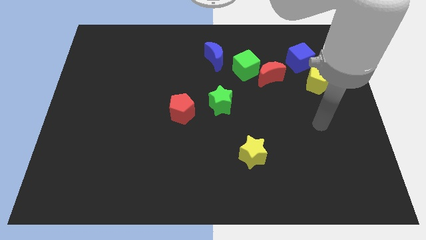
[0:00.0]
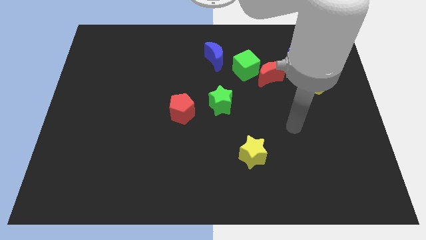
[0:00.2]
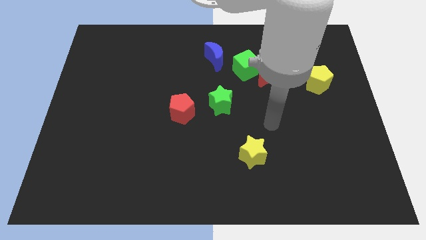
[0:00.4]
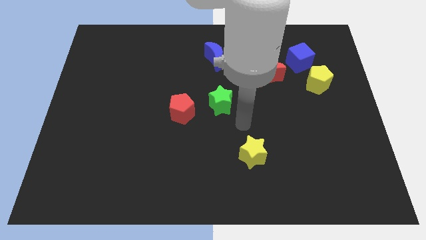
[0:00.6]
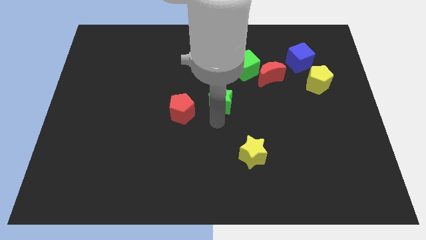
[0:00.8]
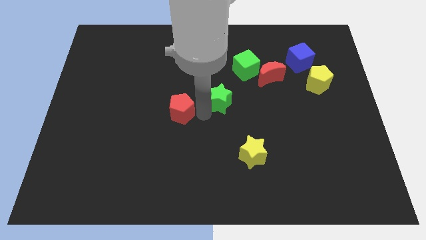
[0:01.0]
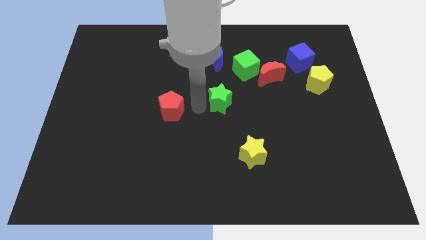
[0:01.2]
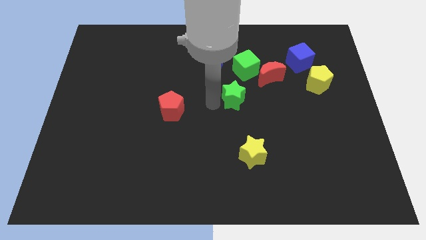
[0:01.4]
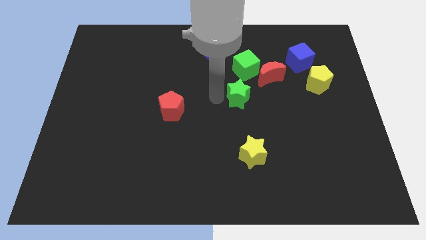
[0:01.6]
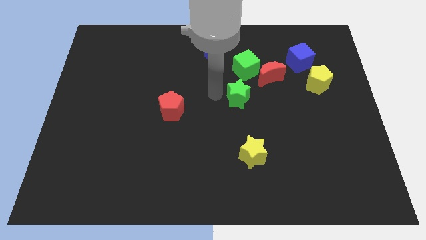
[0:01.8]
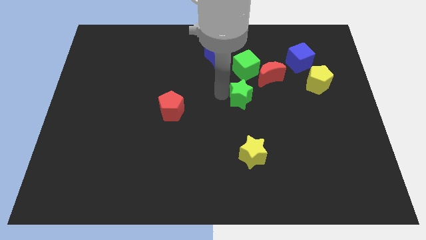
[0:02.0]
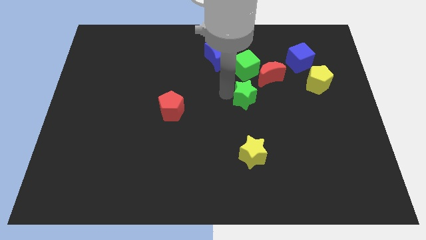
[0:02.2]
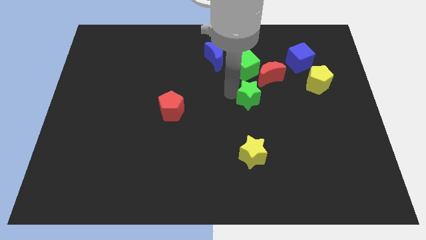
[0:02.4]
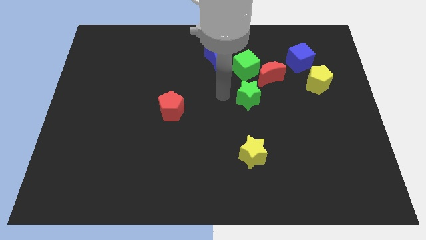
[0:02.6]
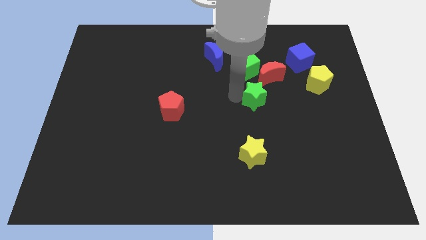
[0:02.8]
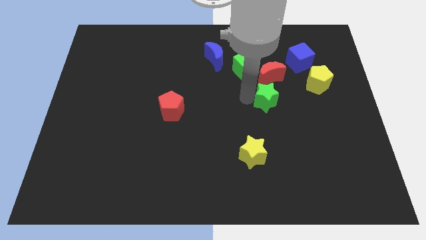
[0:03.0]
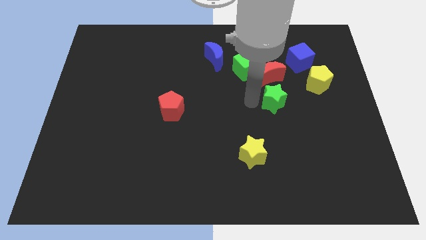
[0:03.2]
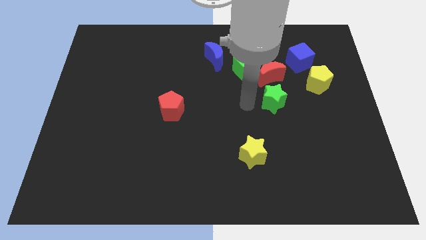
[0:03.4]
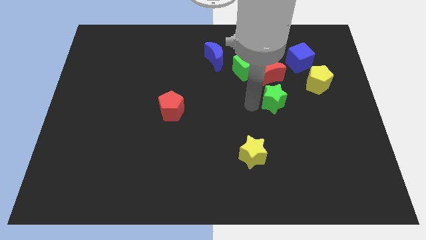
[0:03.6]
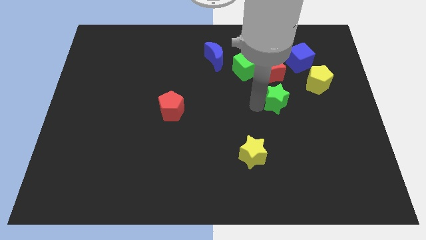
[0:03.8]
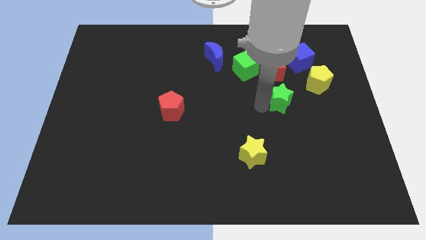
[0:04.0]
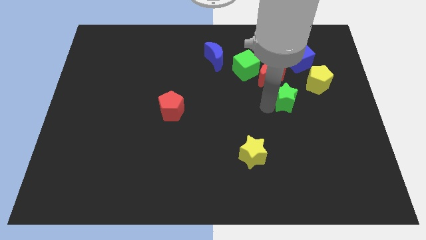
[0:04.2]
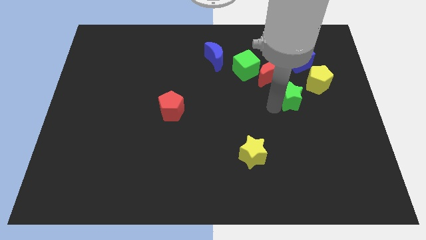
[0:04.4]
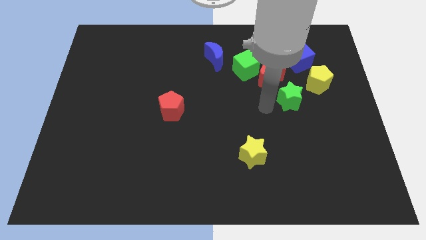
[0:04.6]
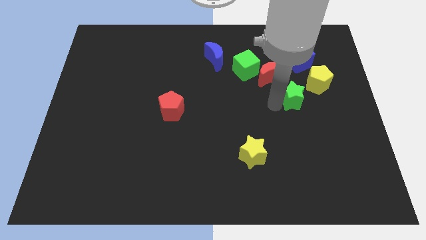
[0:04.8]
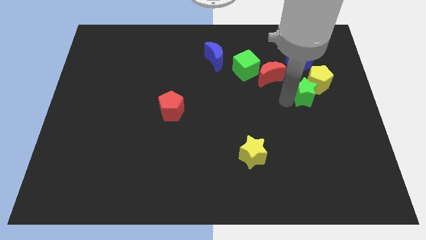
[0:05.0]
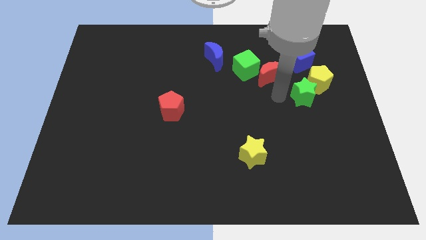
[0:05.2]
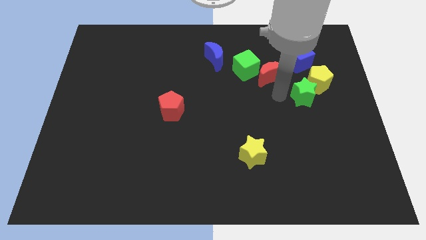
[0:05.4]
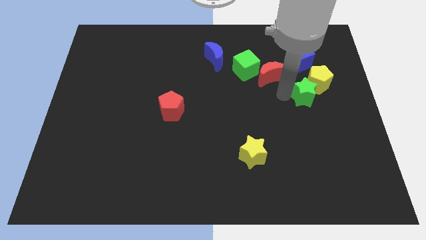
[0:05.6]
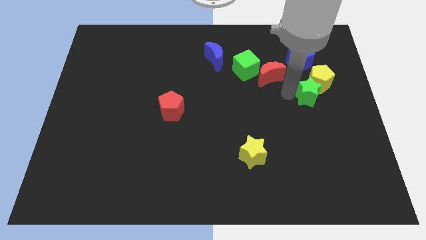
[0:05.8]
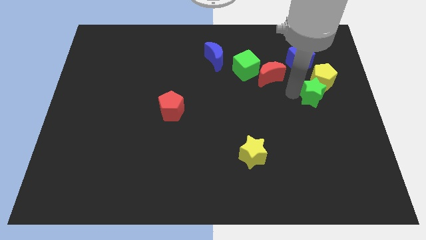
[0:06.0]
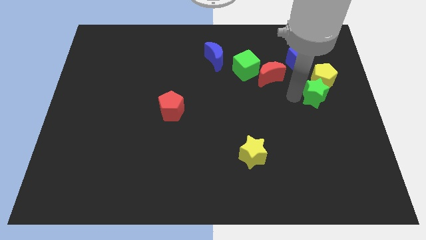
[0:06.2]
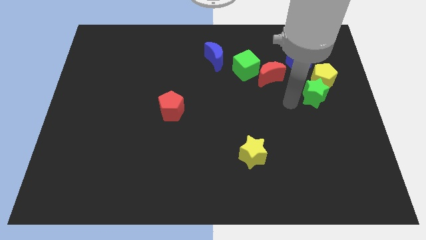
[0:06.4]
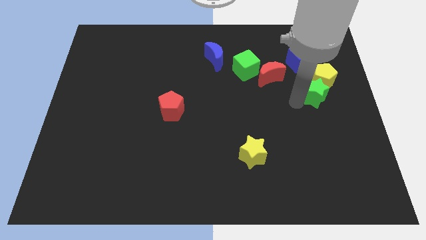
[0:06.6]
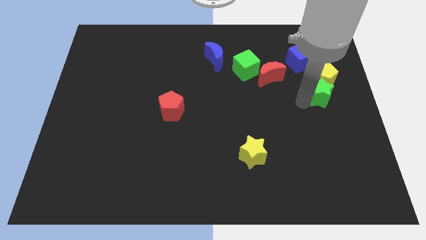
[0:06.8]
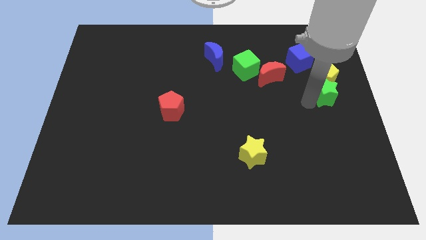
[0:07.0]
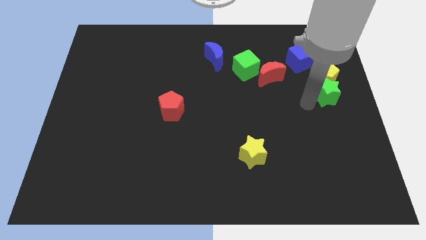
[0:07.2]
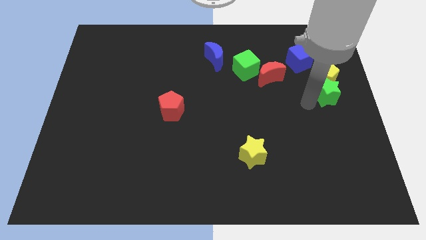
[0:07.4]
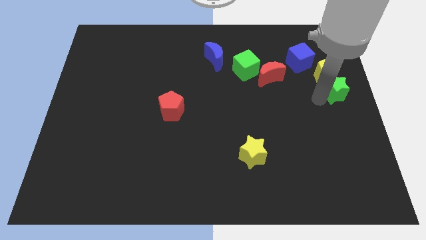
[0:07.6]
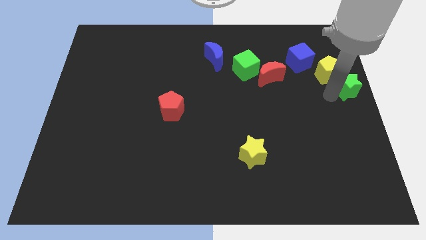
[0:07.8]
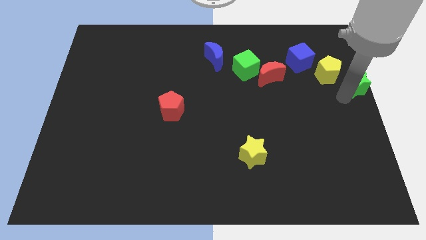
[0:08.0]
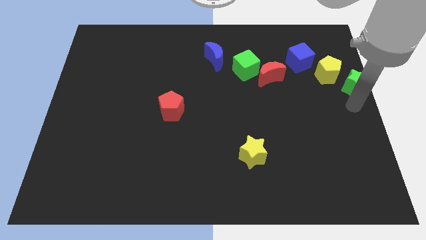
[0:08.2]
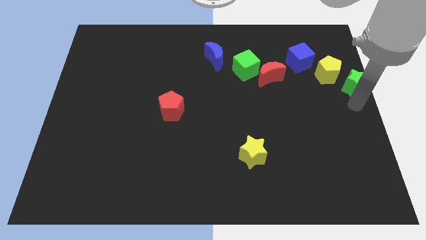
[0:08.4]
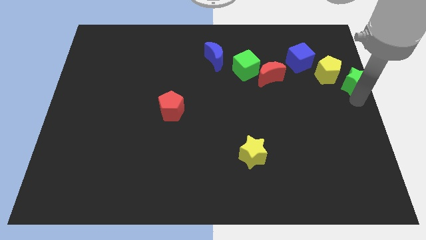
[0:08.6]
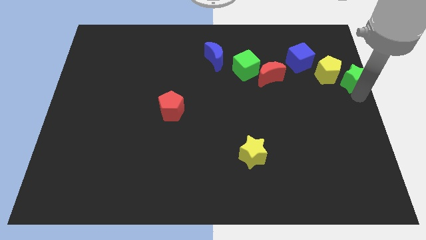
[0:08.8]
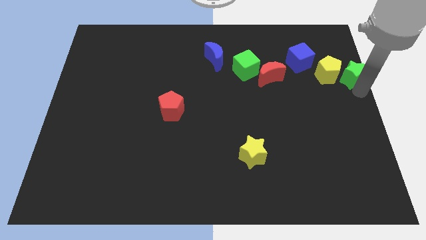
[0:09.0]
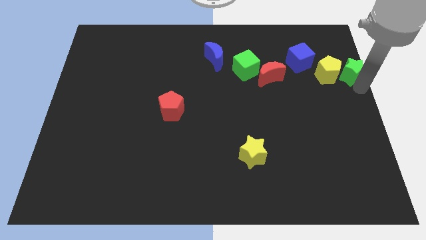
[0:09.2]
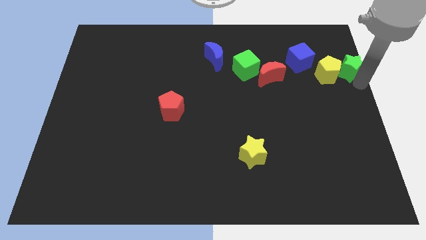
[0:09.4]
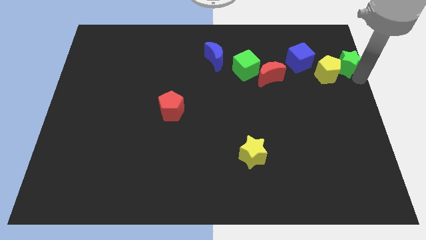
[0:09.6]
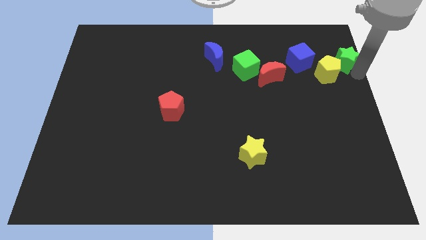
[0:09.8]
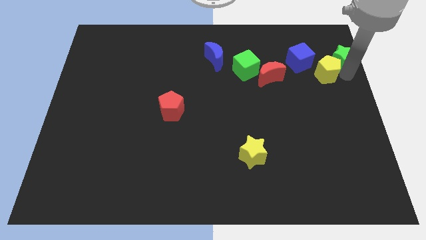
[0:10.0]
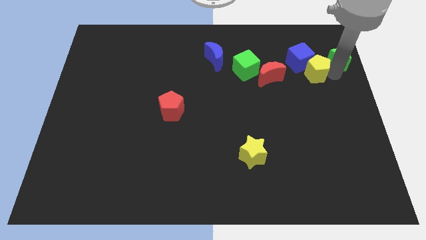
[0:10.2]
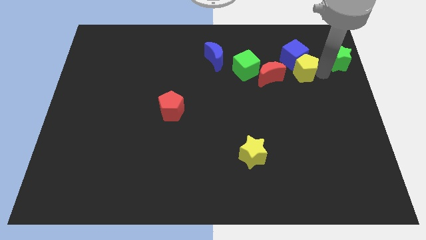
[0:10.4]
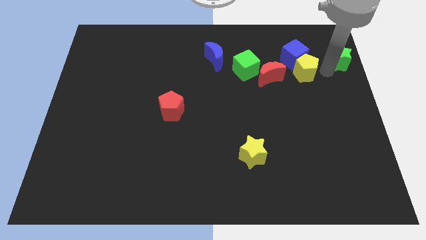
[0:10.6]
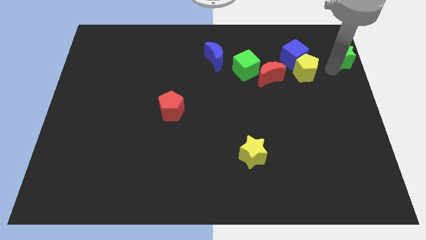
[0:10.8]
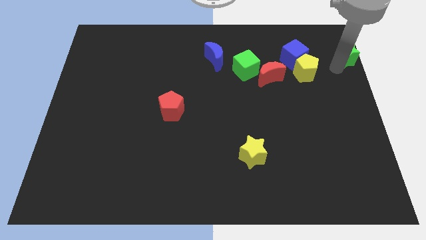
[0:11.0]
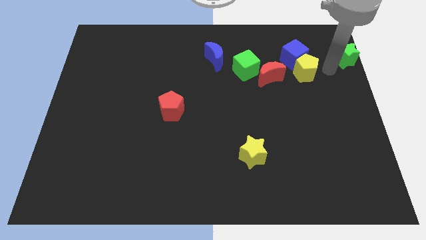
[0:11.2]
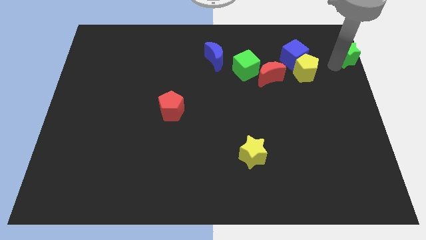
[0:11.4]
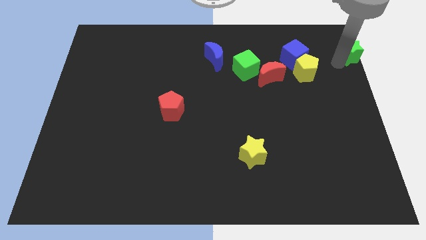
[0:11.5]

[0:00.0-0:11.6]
slide the green star to the upper right corner

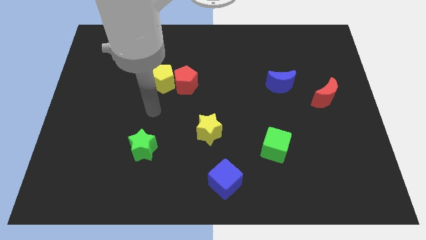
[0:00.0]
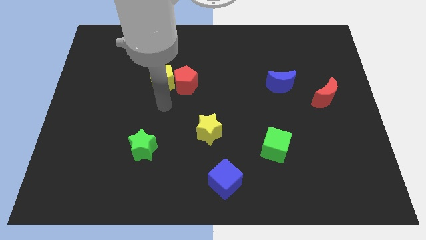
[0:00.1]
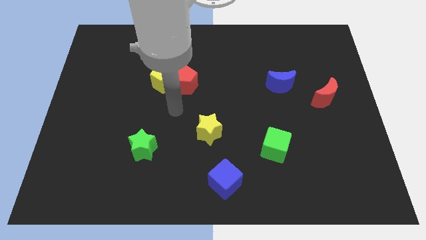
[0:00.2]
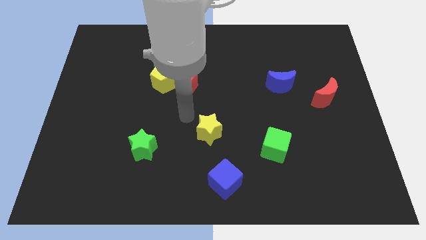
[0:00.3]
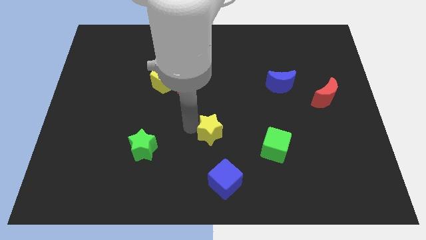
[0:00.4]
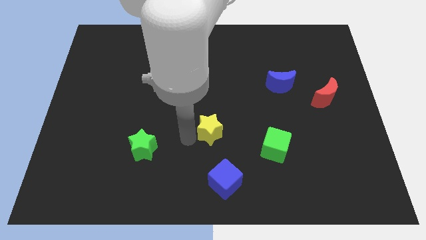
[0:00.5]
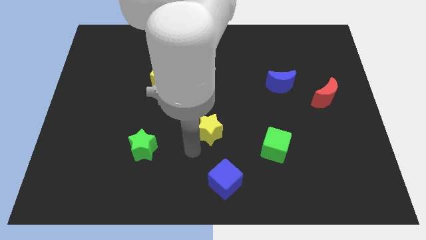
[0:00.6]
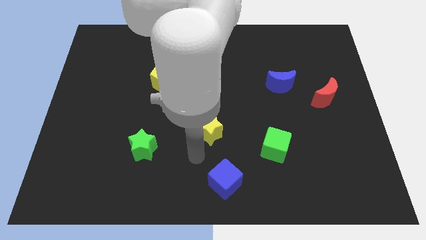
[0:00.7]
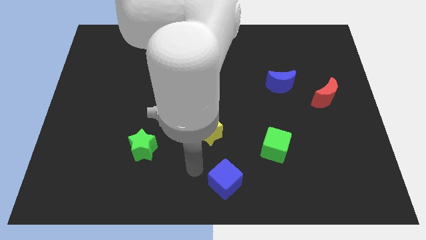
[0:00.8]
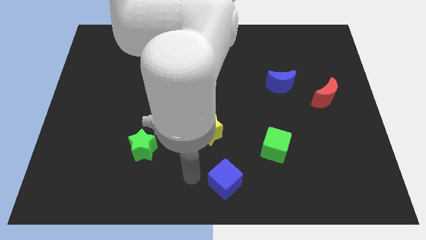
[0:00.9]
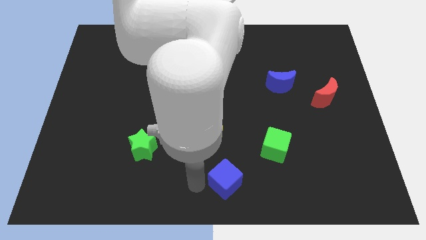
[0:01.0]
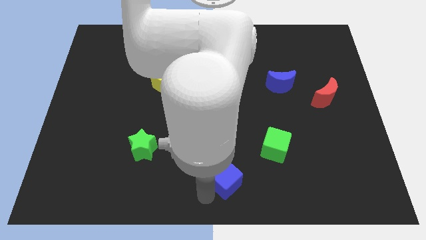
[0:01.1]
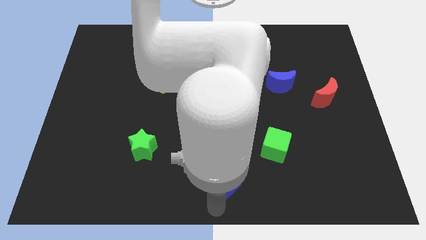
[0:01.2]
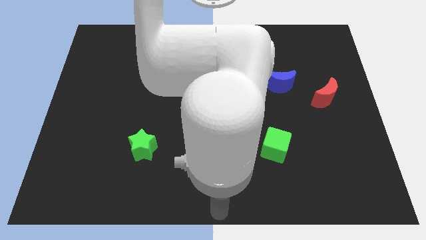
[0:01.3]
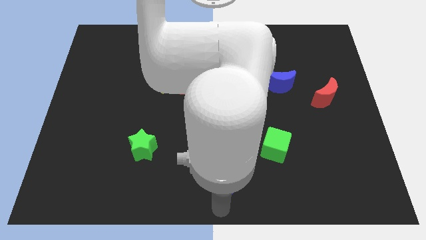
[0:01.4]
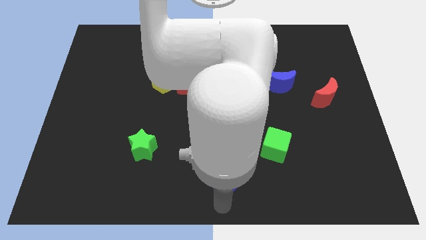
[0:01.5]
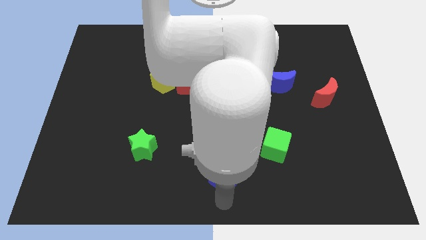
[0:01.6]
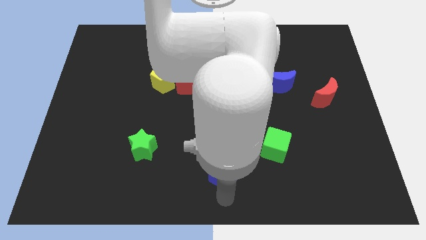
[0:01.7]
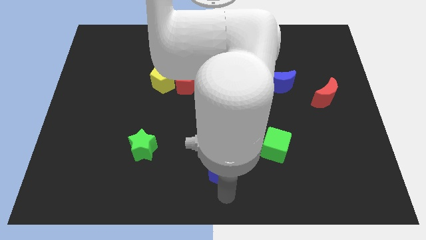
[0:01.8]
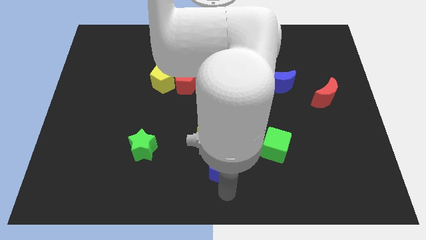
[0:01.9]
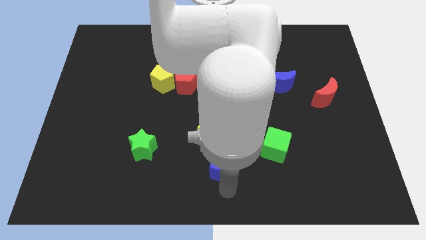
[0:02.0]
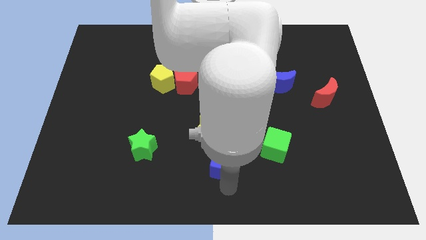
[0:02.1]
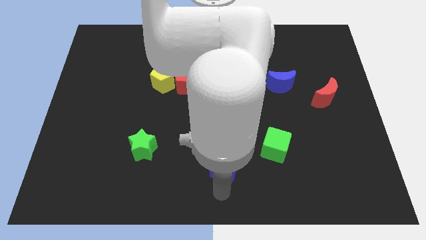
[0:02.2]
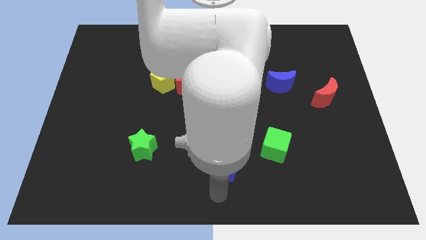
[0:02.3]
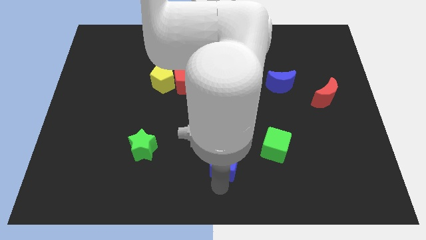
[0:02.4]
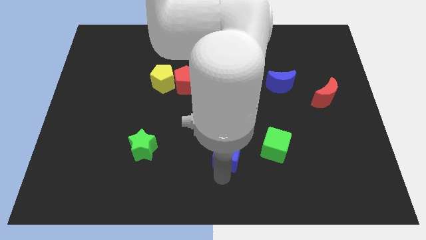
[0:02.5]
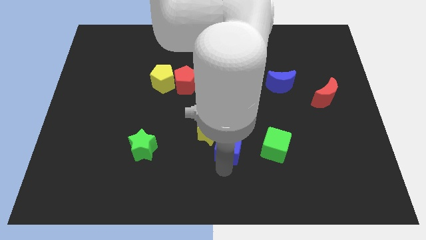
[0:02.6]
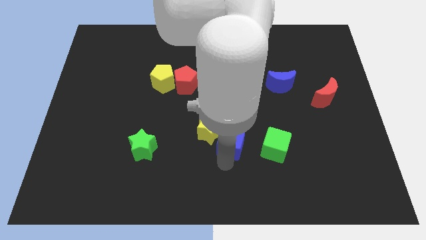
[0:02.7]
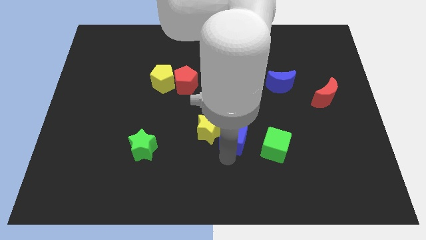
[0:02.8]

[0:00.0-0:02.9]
move the blue cube to the center of the board
